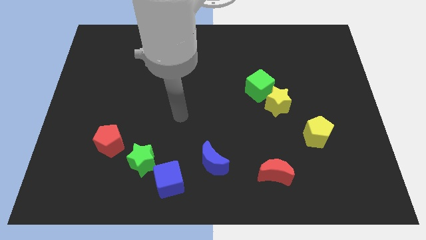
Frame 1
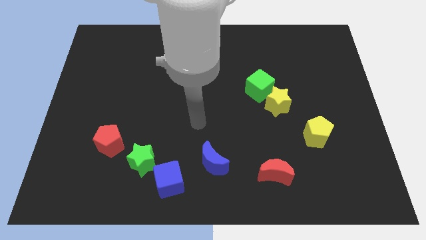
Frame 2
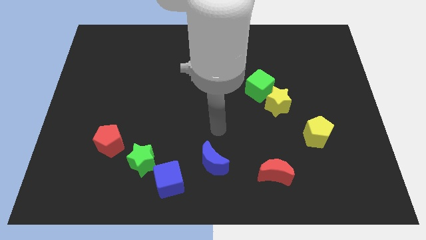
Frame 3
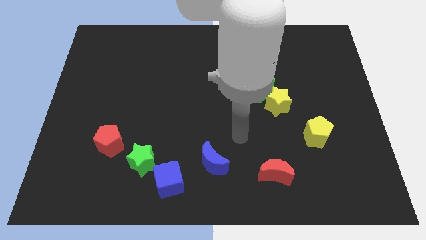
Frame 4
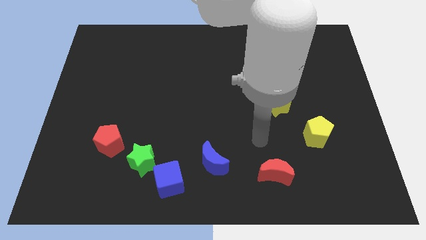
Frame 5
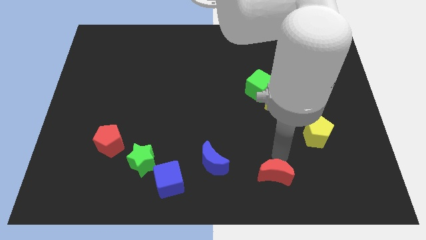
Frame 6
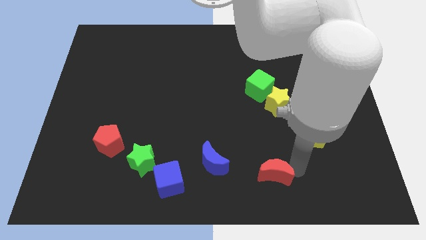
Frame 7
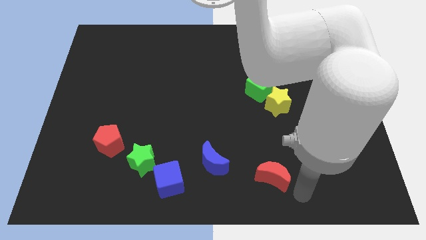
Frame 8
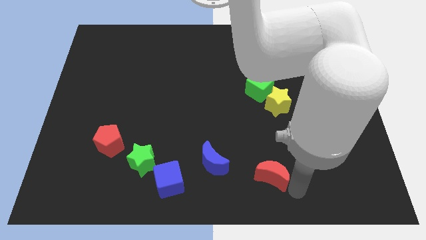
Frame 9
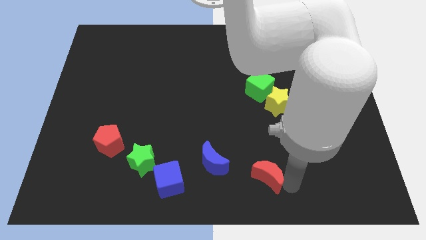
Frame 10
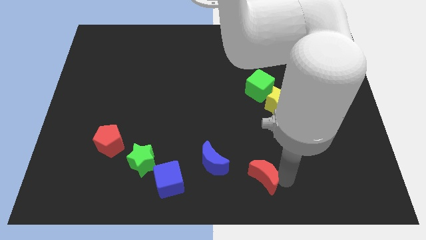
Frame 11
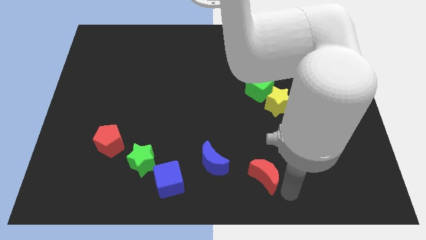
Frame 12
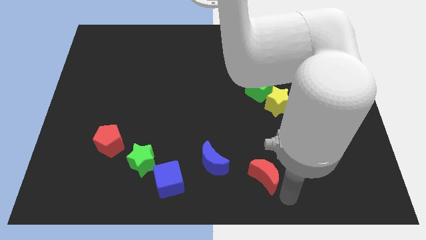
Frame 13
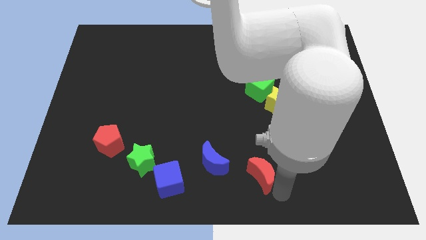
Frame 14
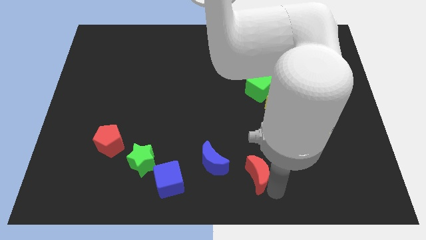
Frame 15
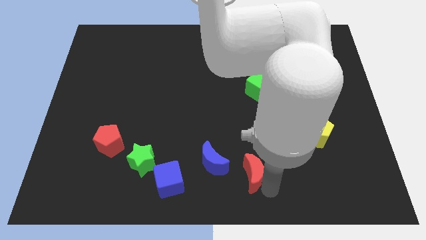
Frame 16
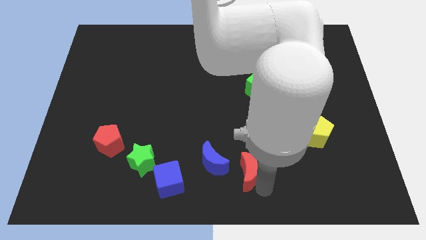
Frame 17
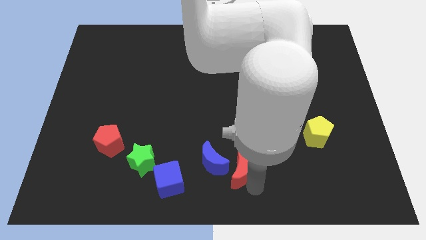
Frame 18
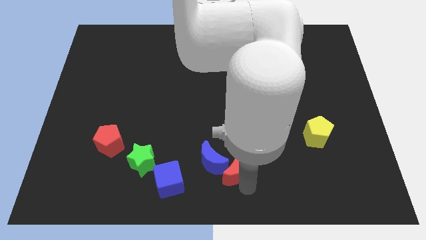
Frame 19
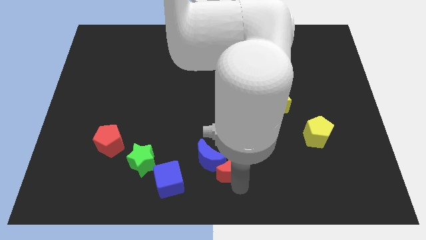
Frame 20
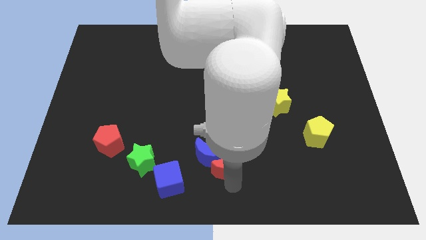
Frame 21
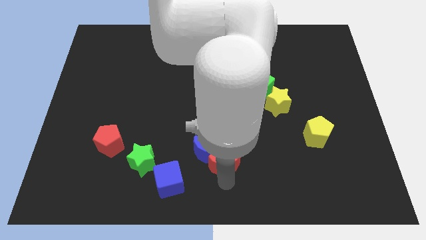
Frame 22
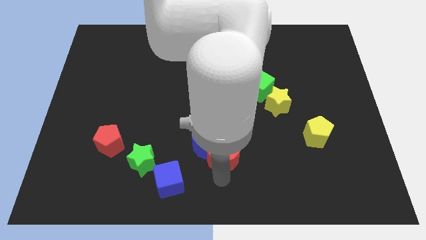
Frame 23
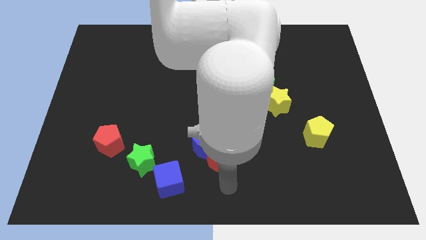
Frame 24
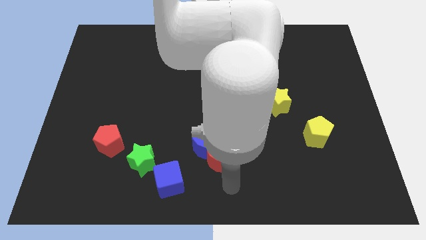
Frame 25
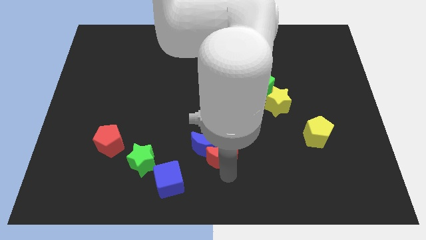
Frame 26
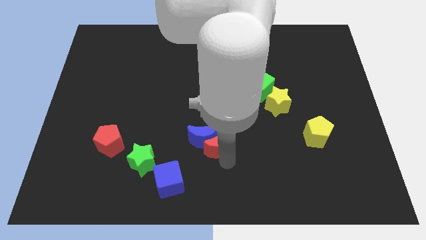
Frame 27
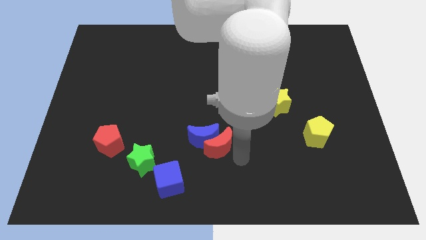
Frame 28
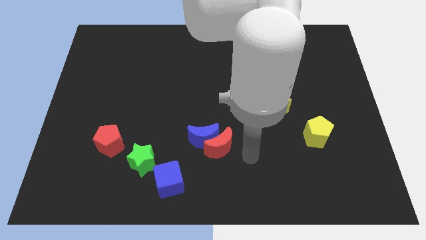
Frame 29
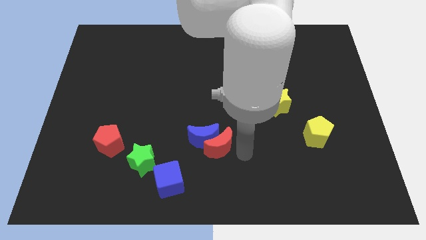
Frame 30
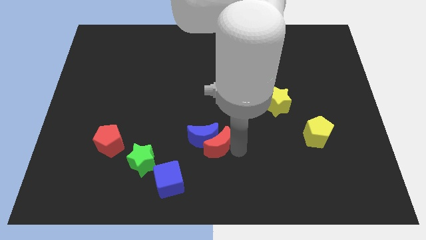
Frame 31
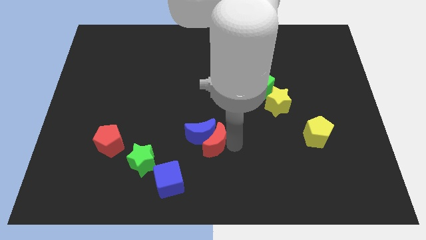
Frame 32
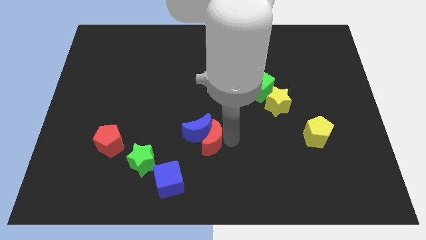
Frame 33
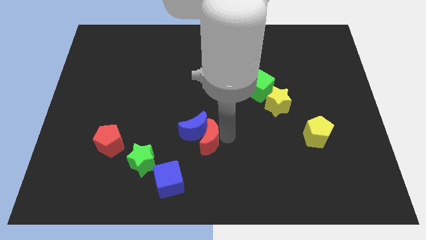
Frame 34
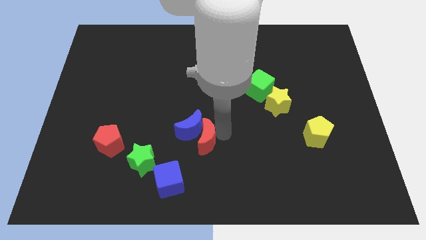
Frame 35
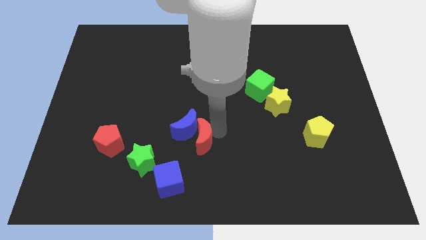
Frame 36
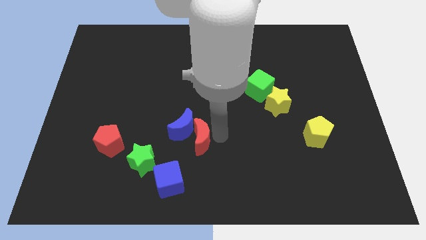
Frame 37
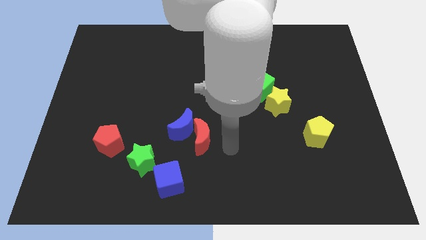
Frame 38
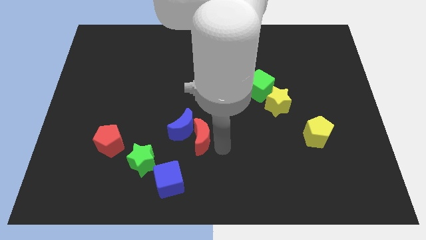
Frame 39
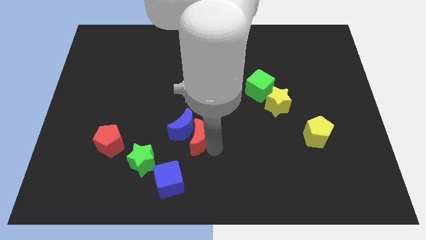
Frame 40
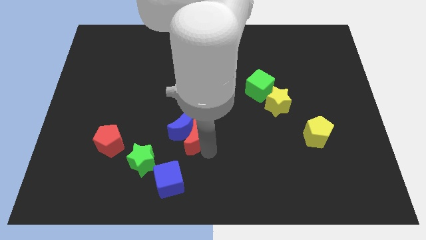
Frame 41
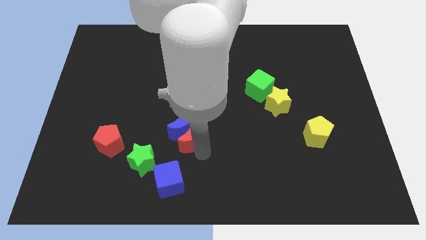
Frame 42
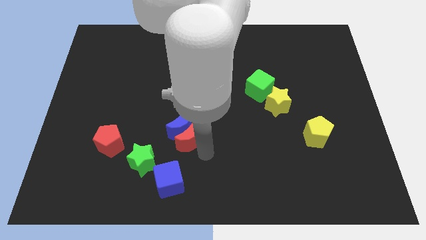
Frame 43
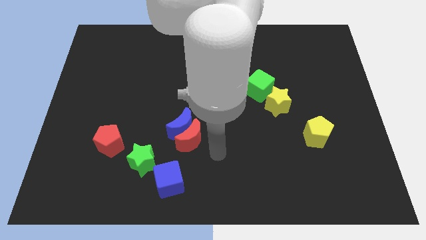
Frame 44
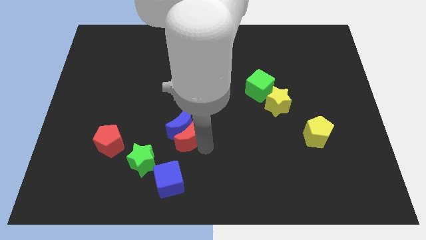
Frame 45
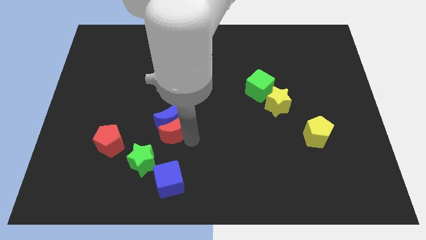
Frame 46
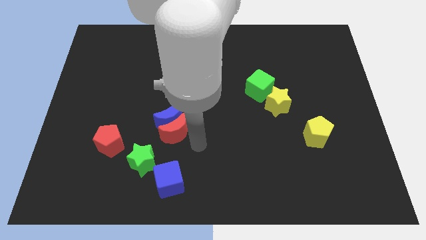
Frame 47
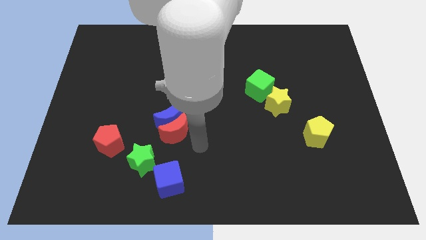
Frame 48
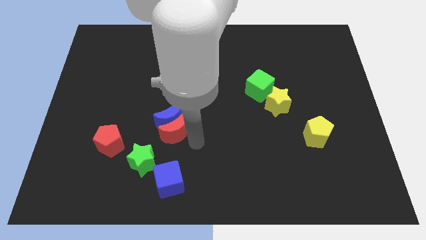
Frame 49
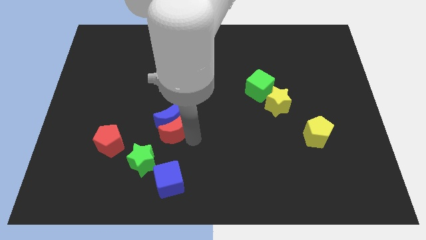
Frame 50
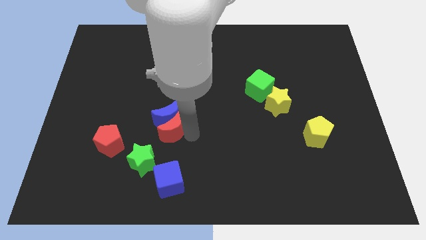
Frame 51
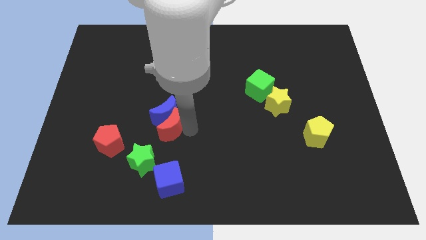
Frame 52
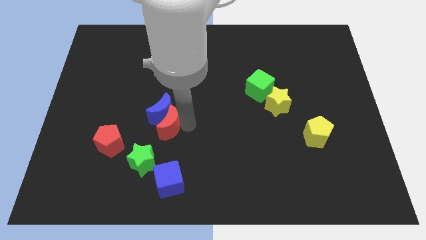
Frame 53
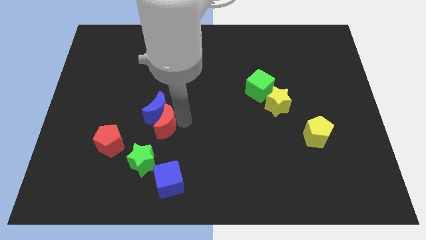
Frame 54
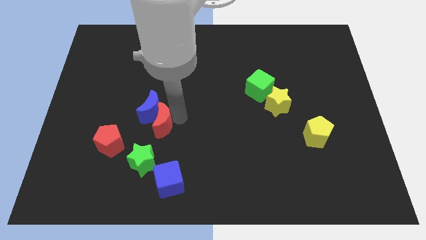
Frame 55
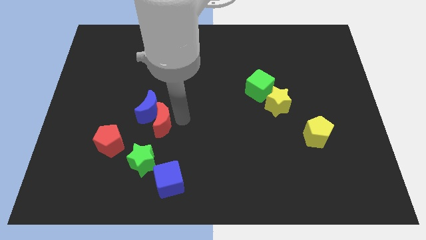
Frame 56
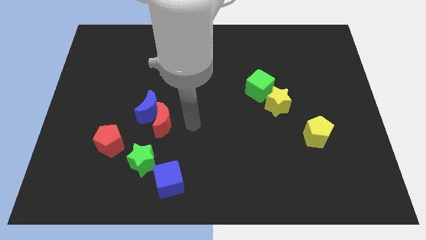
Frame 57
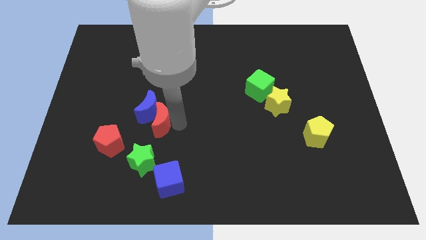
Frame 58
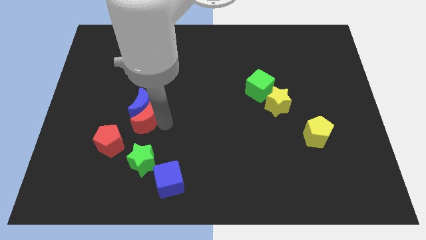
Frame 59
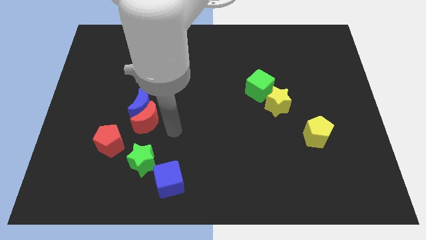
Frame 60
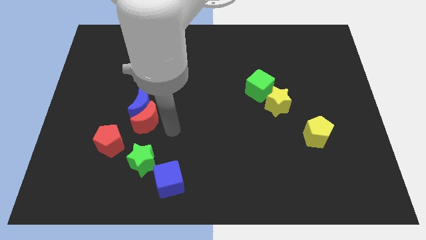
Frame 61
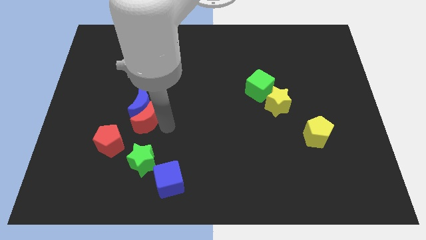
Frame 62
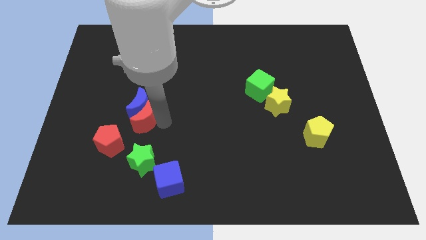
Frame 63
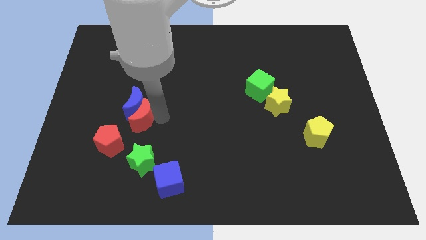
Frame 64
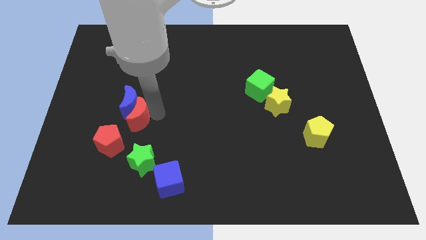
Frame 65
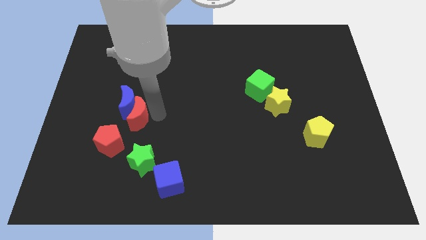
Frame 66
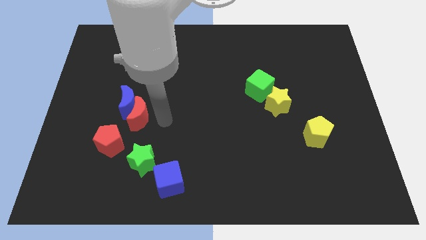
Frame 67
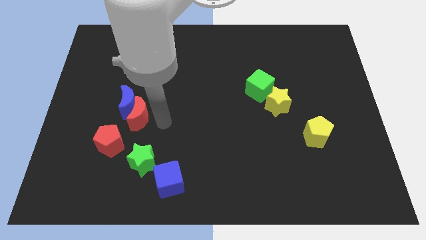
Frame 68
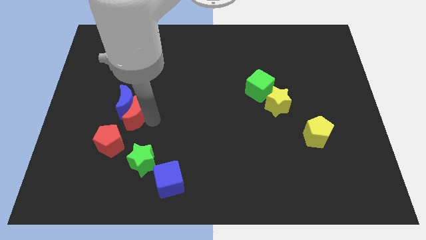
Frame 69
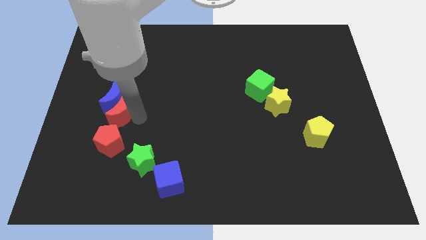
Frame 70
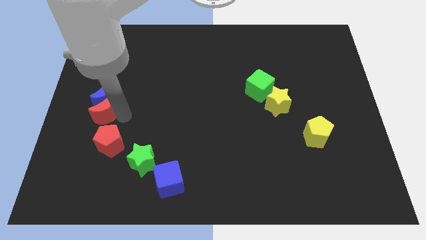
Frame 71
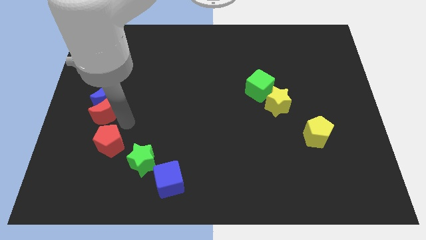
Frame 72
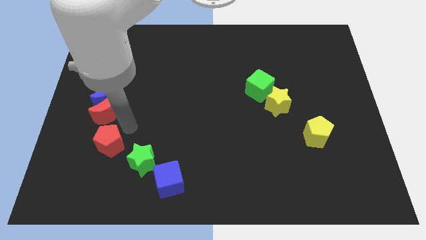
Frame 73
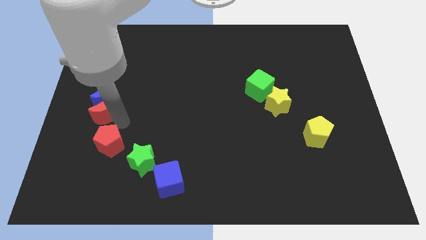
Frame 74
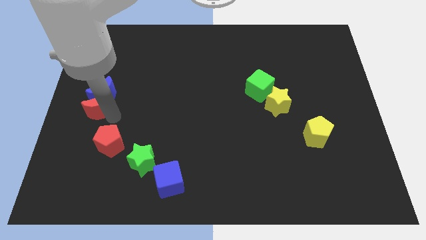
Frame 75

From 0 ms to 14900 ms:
move the red moon to the left side of the board
